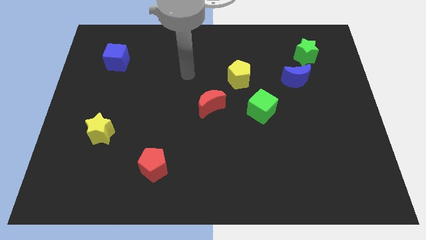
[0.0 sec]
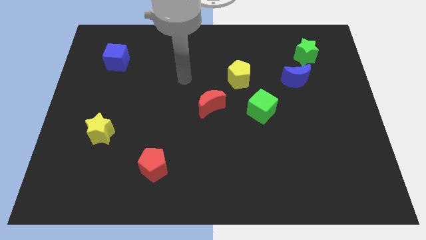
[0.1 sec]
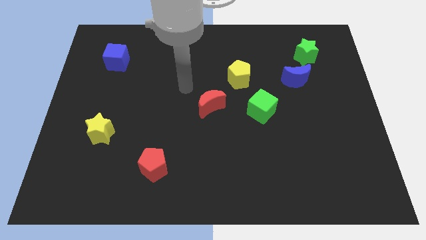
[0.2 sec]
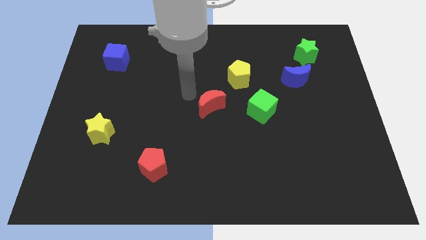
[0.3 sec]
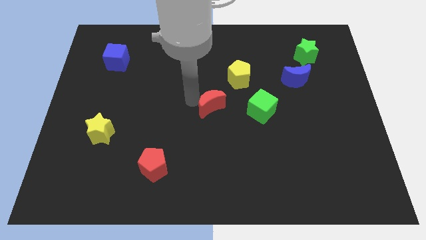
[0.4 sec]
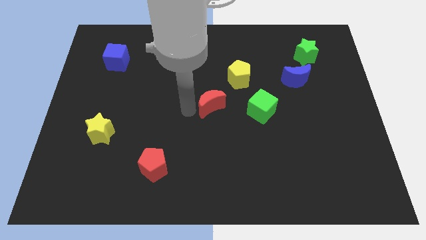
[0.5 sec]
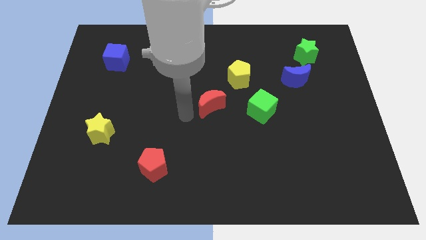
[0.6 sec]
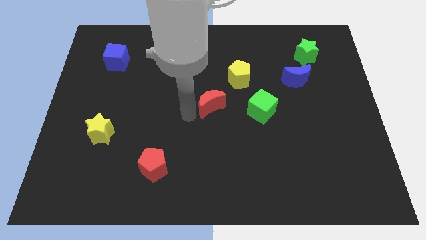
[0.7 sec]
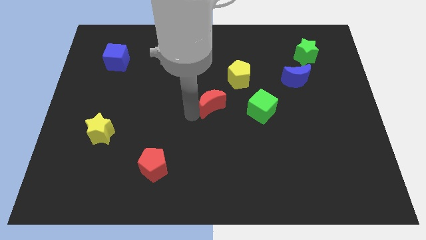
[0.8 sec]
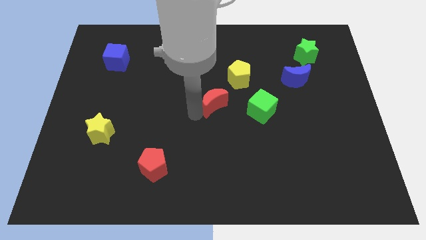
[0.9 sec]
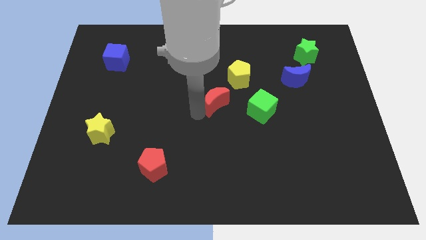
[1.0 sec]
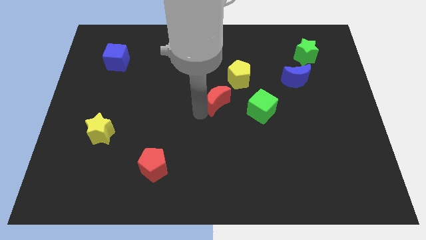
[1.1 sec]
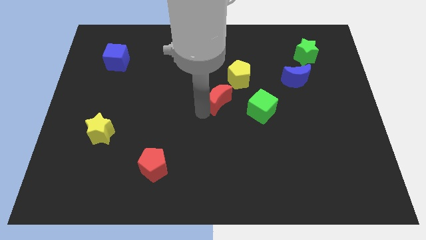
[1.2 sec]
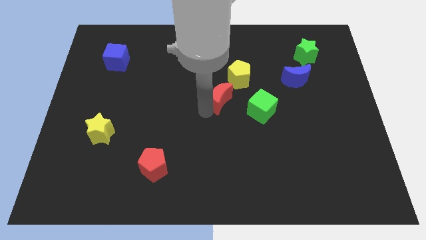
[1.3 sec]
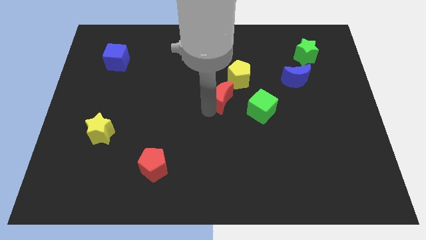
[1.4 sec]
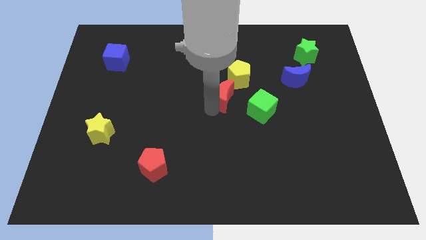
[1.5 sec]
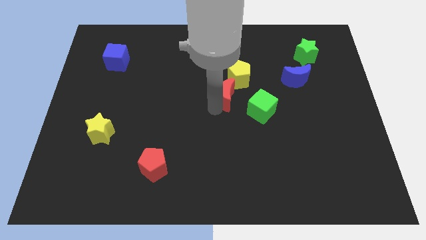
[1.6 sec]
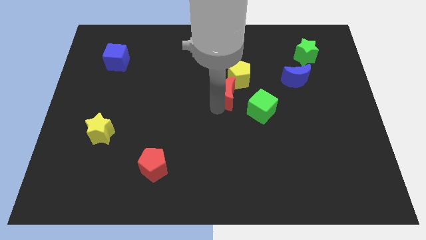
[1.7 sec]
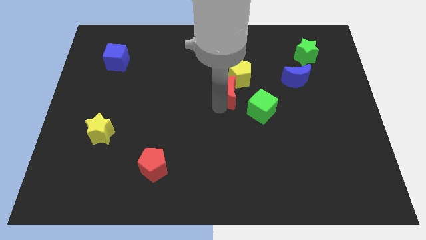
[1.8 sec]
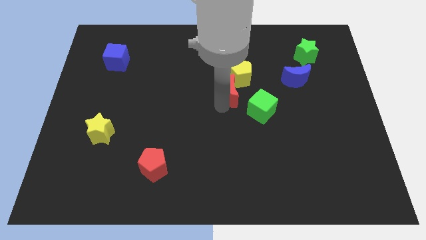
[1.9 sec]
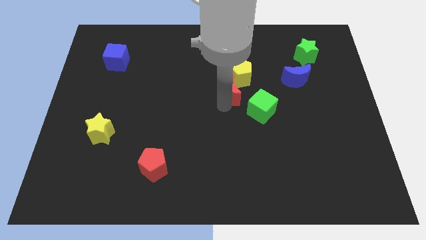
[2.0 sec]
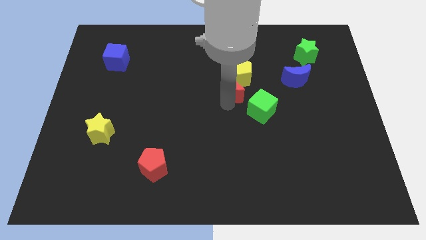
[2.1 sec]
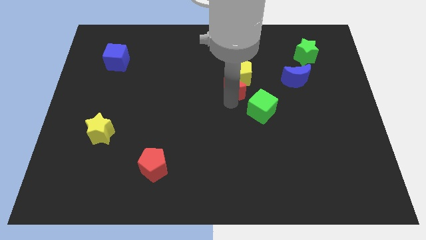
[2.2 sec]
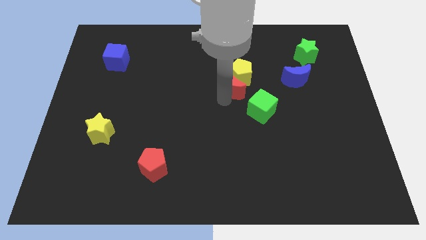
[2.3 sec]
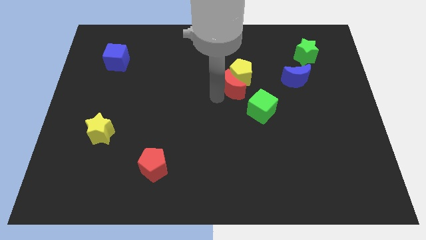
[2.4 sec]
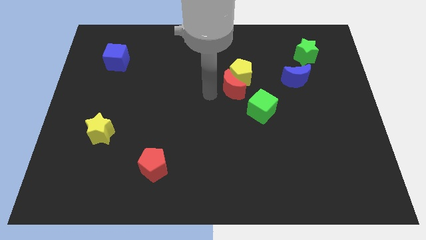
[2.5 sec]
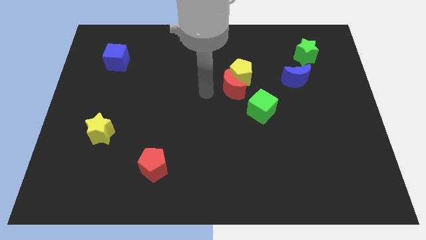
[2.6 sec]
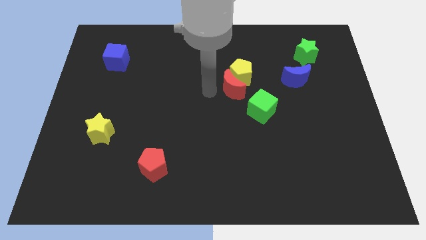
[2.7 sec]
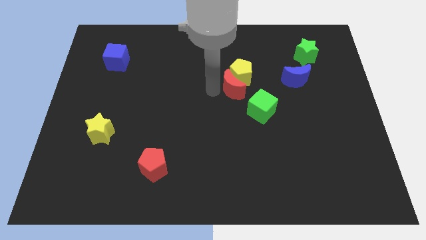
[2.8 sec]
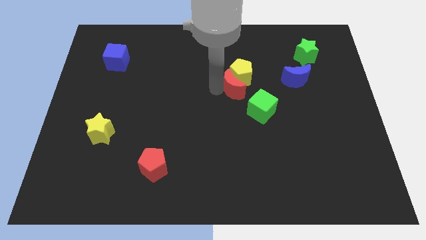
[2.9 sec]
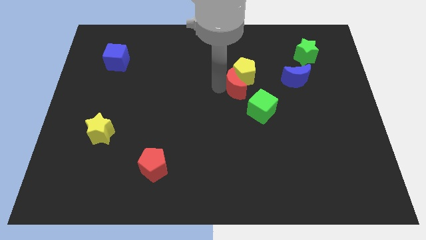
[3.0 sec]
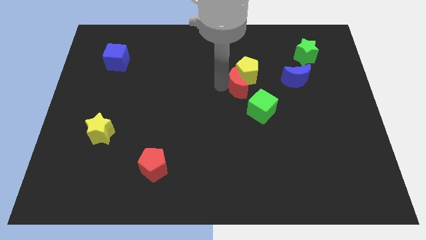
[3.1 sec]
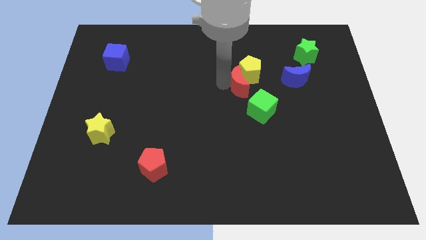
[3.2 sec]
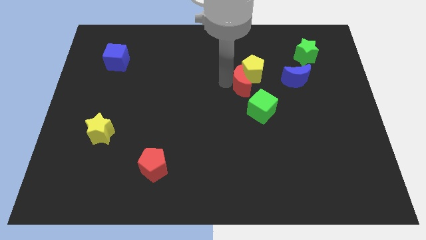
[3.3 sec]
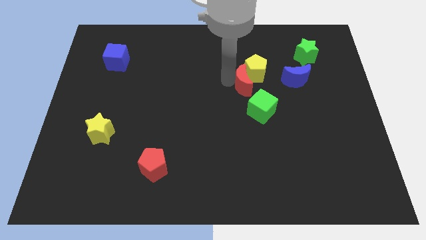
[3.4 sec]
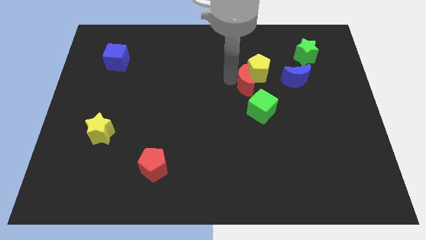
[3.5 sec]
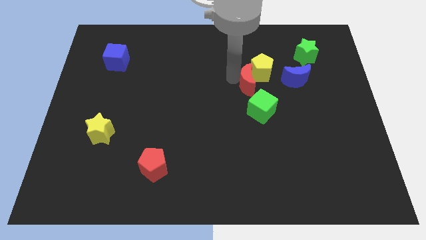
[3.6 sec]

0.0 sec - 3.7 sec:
push the red moon to the right somewhat

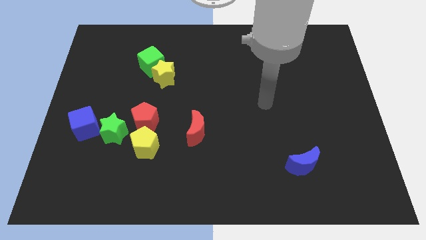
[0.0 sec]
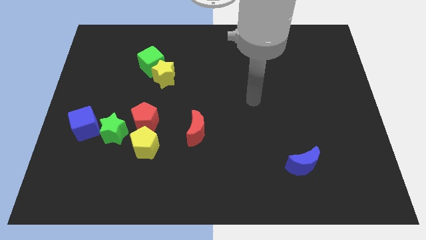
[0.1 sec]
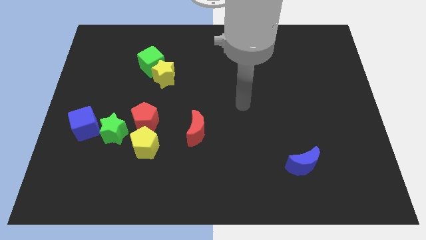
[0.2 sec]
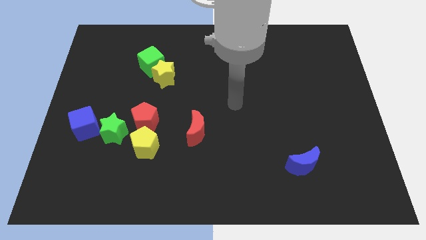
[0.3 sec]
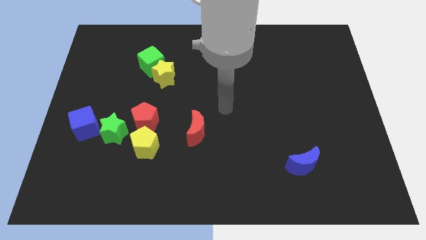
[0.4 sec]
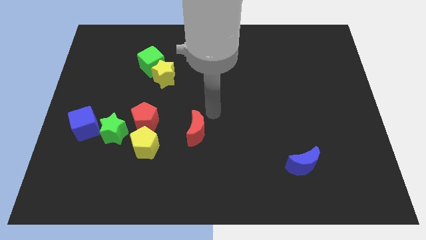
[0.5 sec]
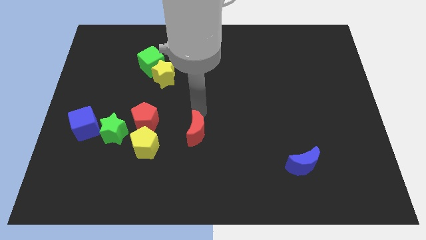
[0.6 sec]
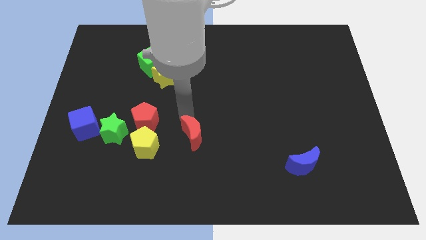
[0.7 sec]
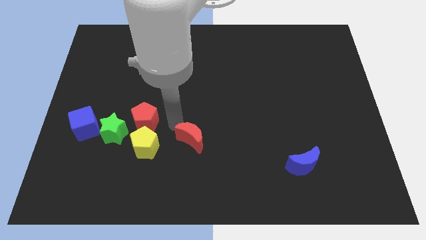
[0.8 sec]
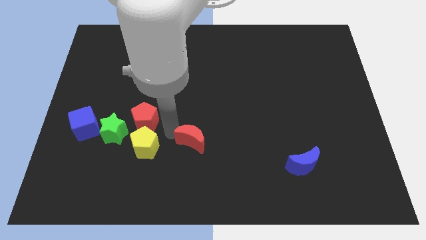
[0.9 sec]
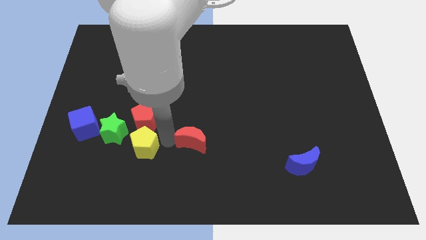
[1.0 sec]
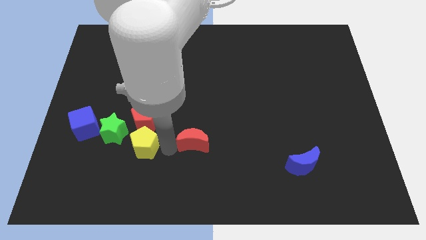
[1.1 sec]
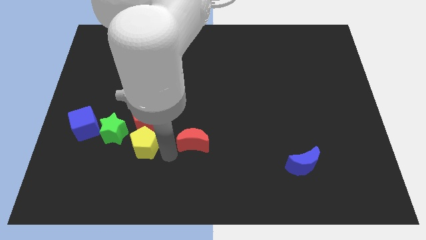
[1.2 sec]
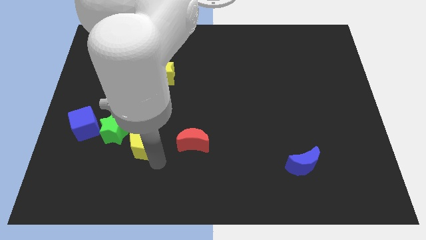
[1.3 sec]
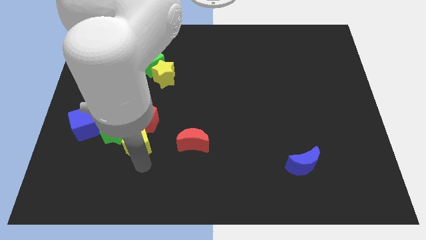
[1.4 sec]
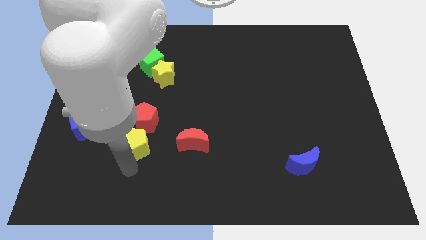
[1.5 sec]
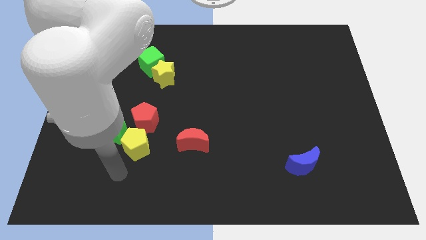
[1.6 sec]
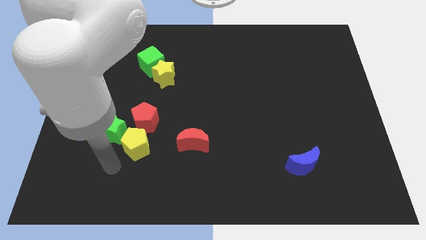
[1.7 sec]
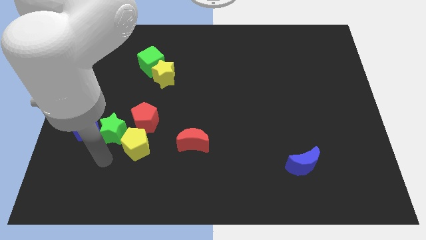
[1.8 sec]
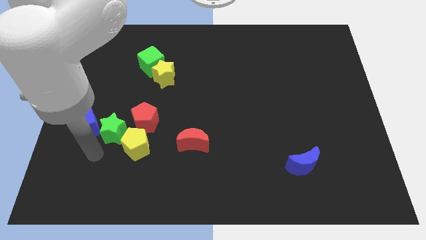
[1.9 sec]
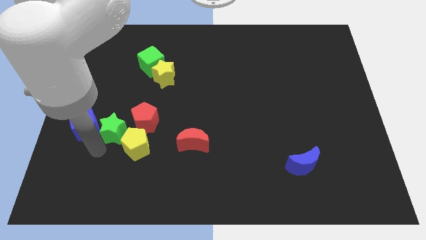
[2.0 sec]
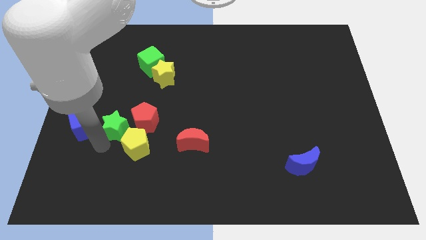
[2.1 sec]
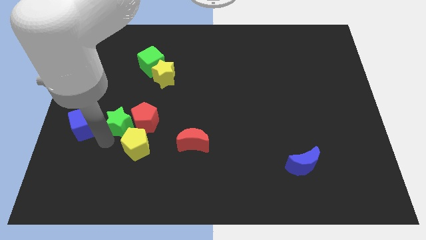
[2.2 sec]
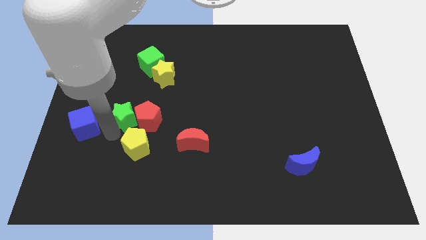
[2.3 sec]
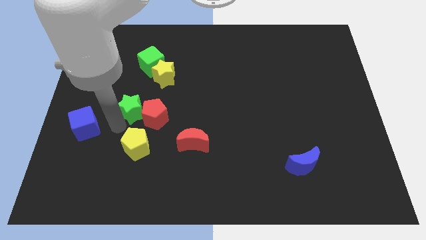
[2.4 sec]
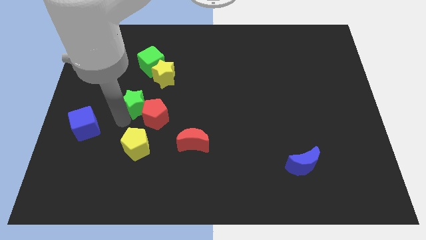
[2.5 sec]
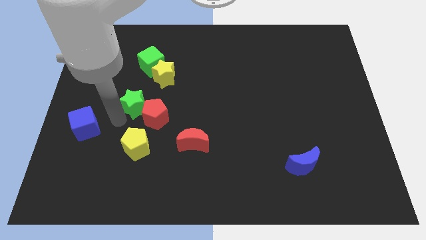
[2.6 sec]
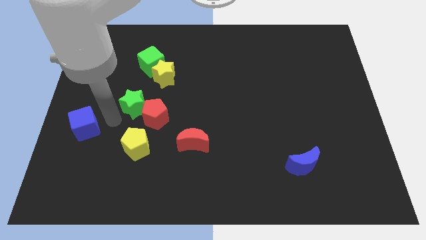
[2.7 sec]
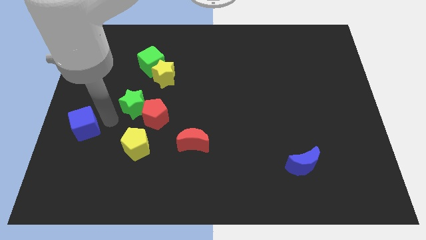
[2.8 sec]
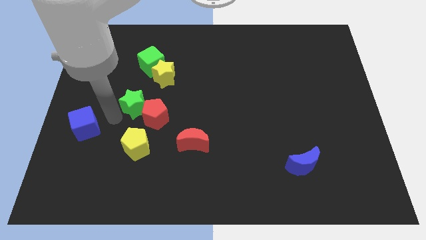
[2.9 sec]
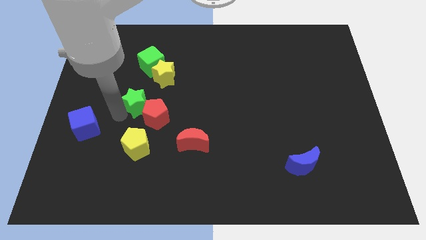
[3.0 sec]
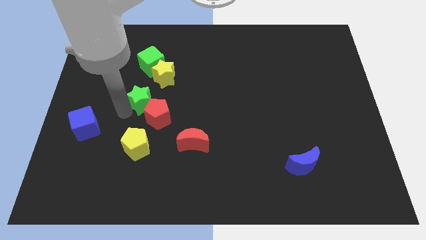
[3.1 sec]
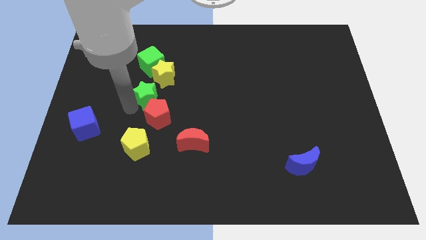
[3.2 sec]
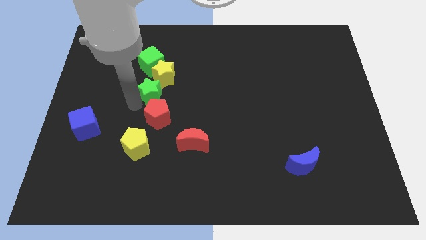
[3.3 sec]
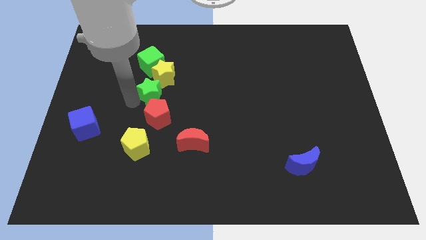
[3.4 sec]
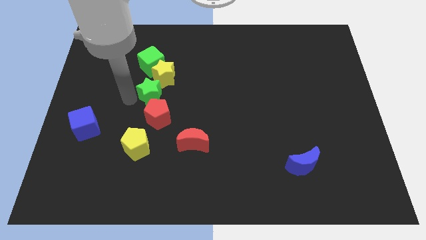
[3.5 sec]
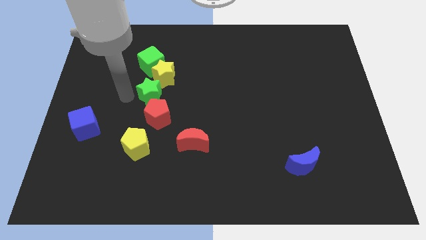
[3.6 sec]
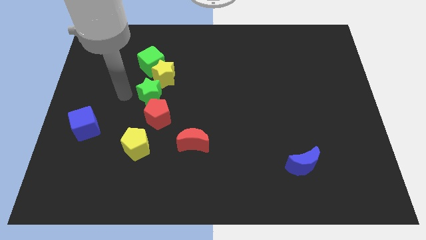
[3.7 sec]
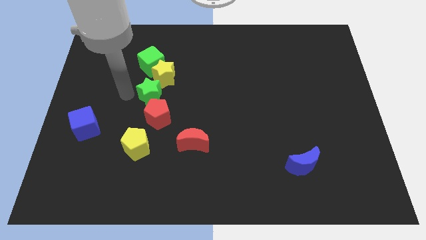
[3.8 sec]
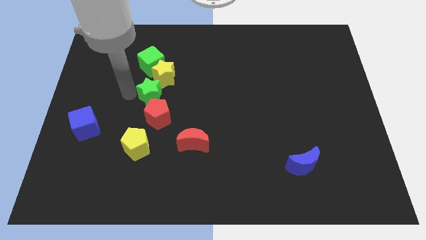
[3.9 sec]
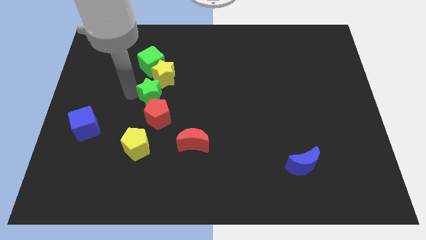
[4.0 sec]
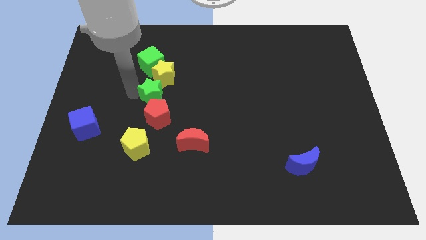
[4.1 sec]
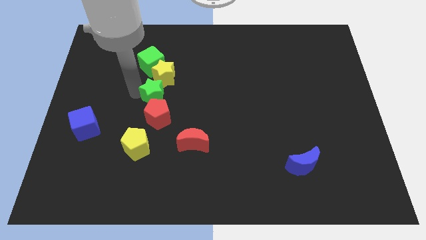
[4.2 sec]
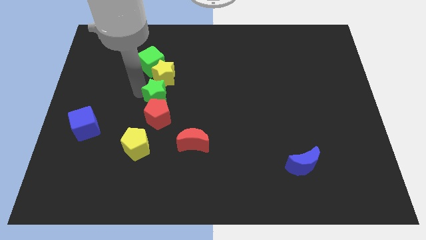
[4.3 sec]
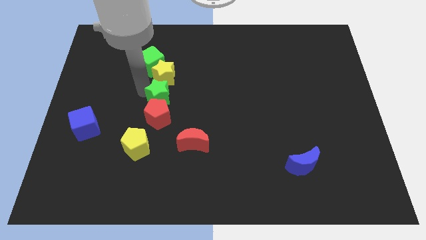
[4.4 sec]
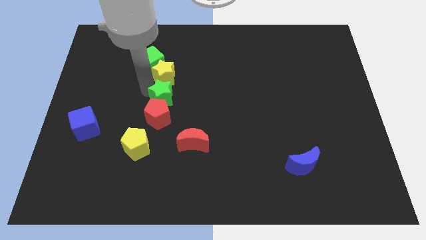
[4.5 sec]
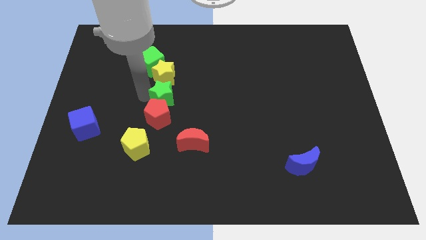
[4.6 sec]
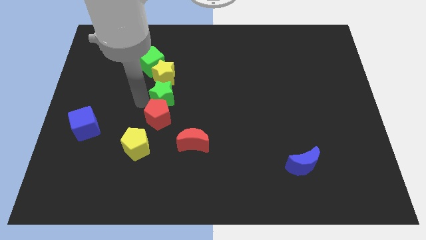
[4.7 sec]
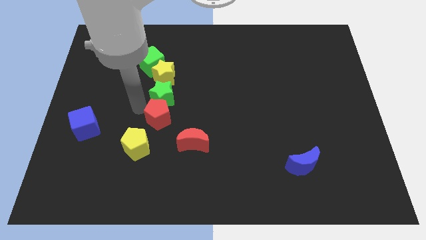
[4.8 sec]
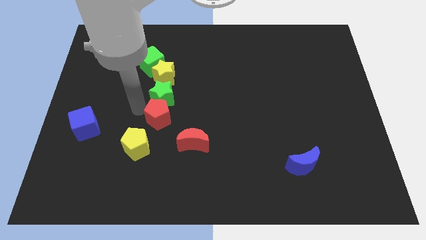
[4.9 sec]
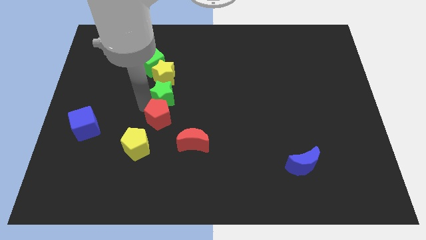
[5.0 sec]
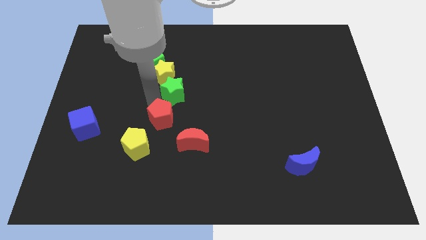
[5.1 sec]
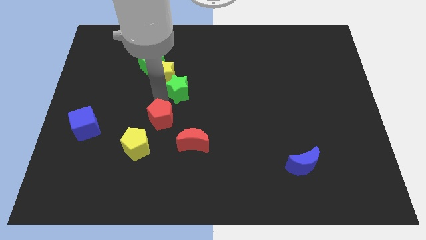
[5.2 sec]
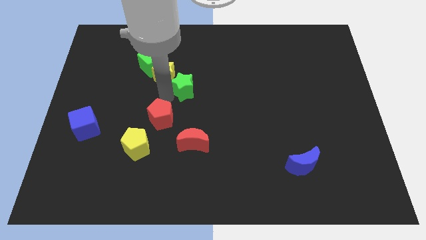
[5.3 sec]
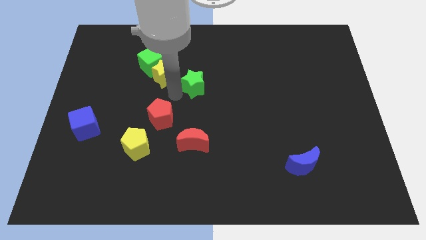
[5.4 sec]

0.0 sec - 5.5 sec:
push the green star up and right diagonally
